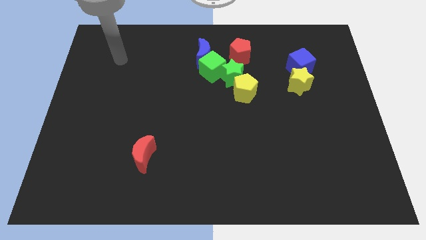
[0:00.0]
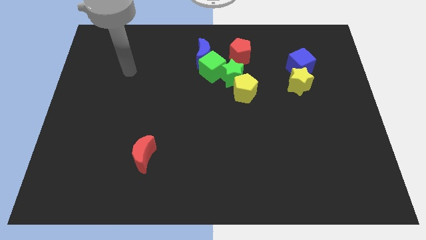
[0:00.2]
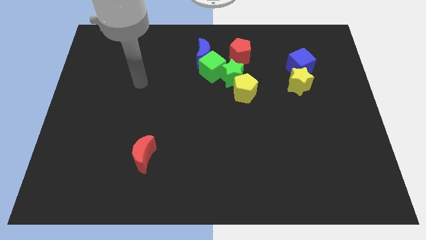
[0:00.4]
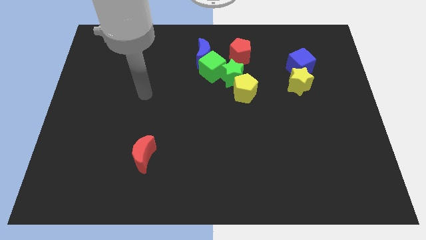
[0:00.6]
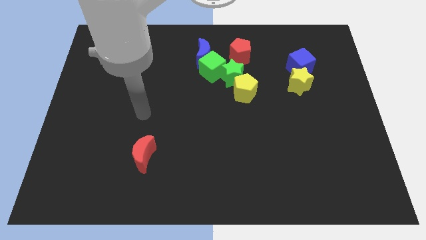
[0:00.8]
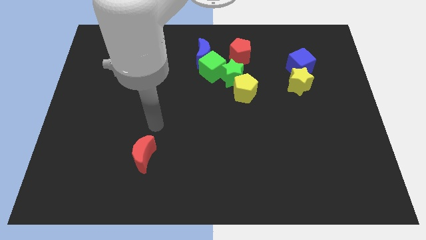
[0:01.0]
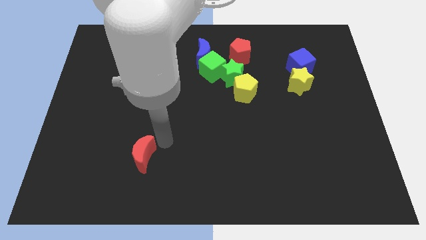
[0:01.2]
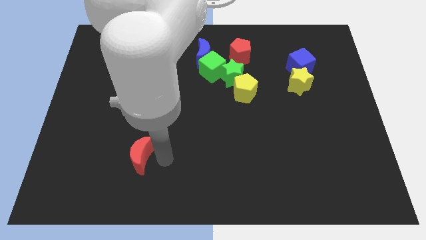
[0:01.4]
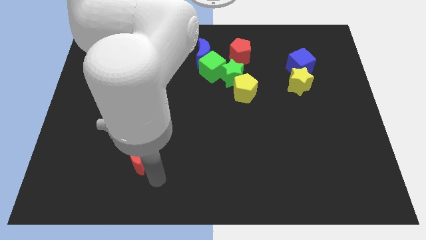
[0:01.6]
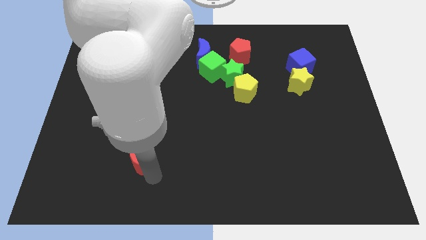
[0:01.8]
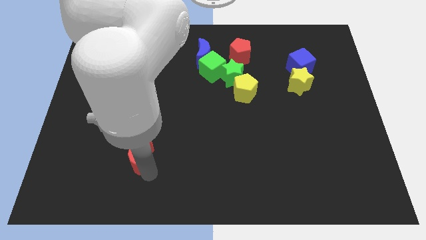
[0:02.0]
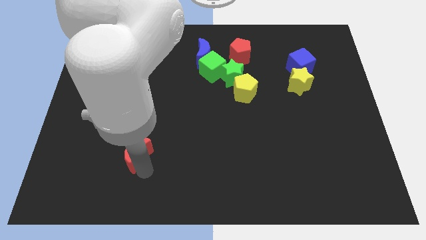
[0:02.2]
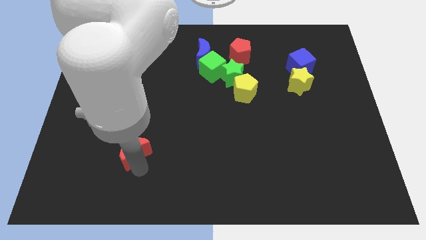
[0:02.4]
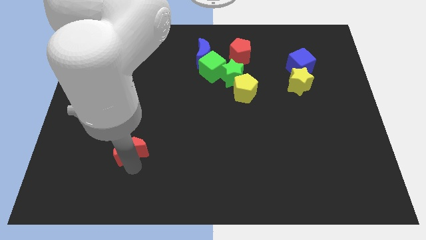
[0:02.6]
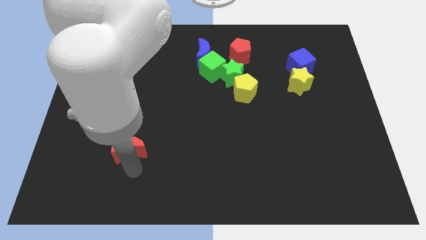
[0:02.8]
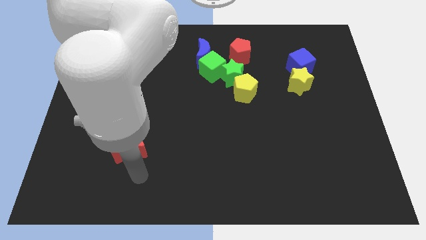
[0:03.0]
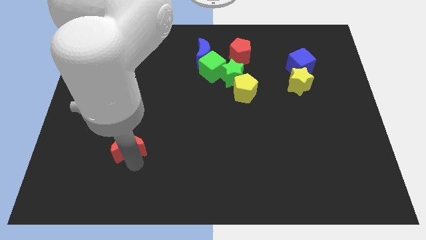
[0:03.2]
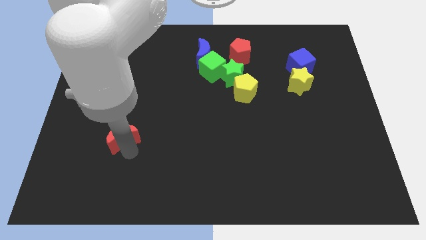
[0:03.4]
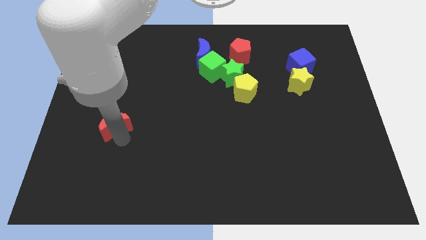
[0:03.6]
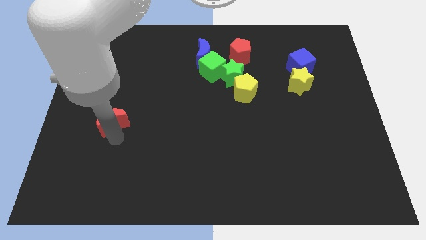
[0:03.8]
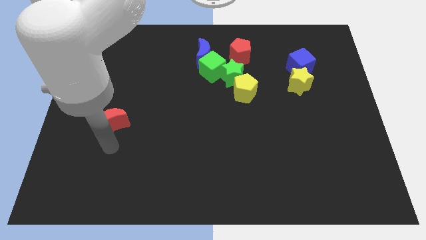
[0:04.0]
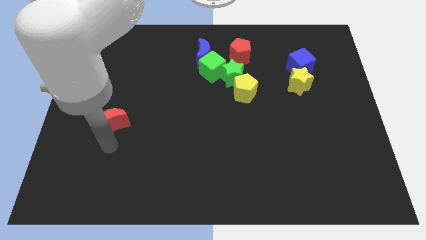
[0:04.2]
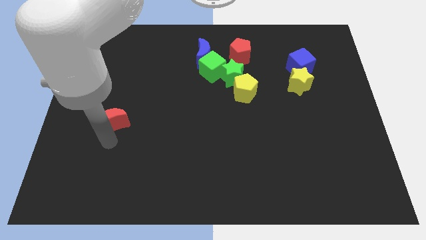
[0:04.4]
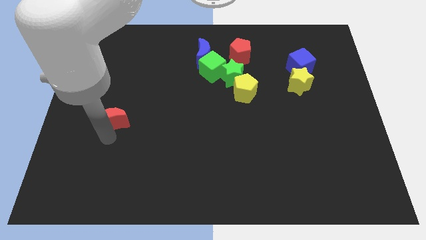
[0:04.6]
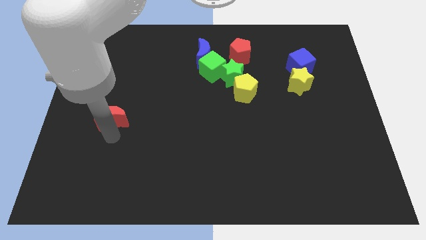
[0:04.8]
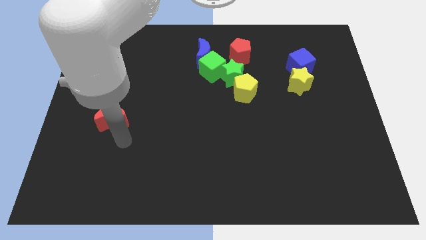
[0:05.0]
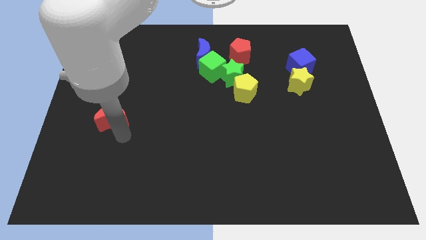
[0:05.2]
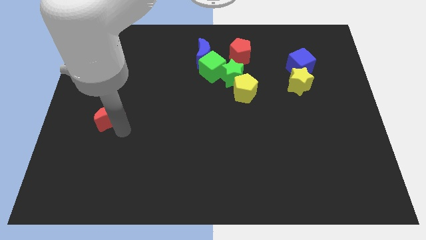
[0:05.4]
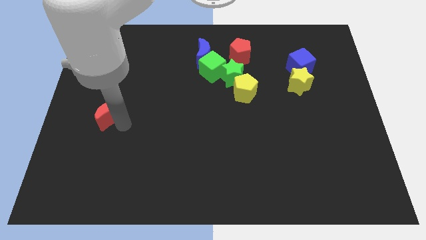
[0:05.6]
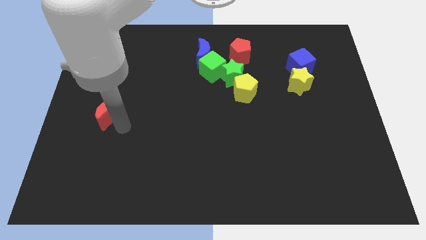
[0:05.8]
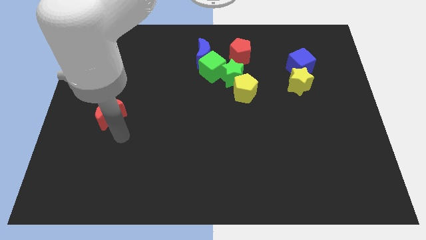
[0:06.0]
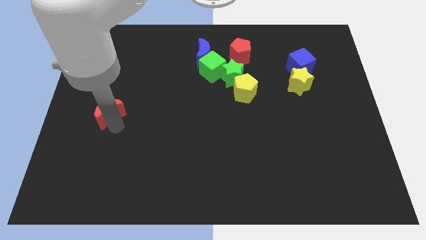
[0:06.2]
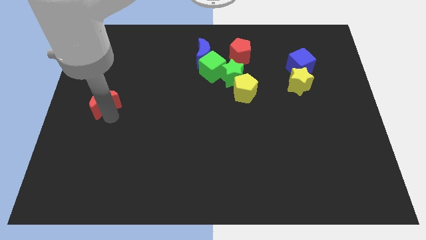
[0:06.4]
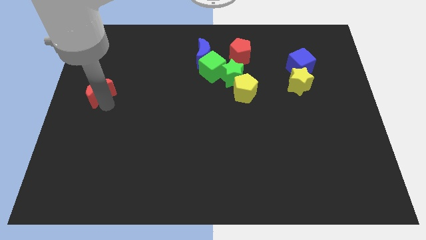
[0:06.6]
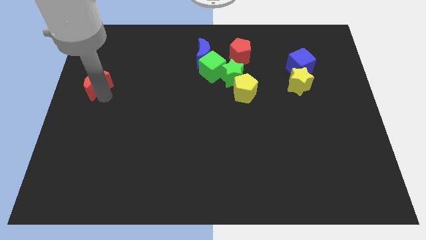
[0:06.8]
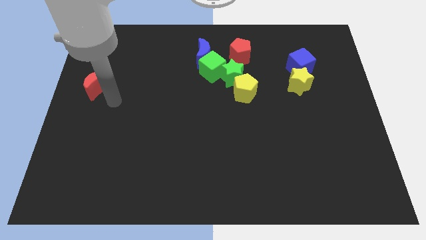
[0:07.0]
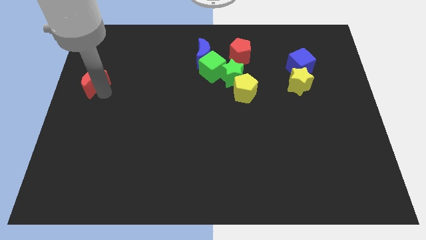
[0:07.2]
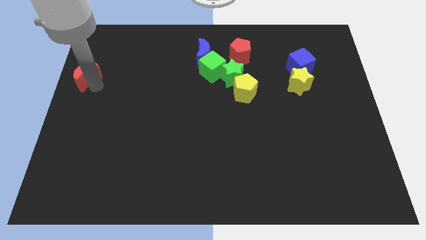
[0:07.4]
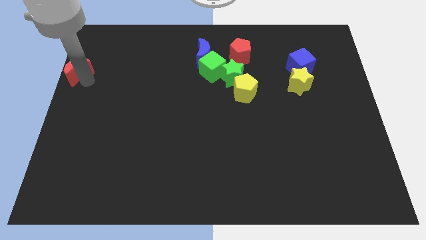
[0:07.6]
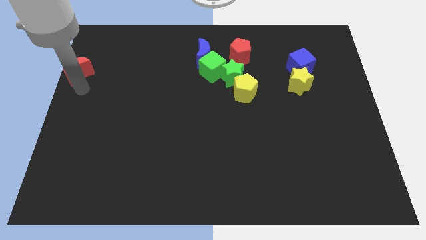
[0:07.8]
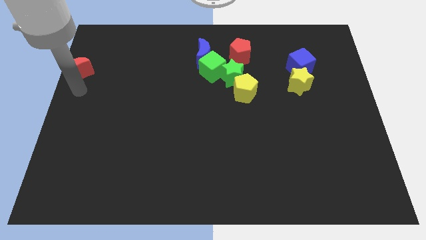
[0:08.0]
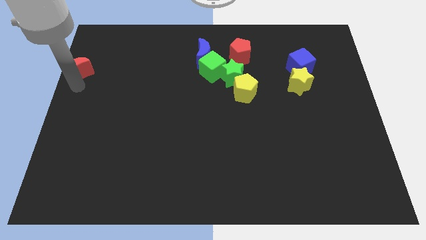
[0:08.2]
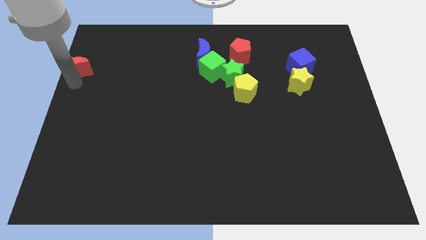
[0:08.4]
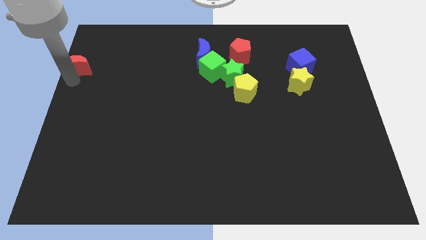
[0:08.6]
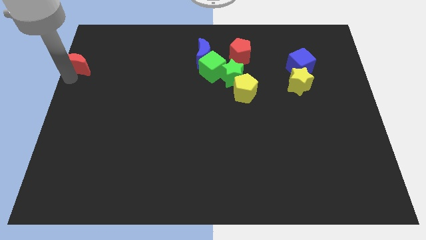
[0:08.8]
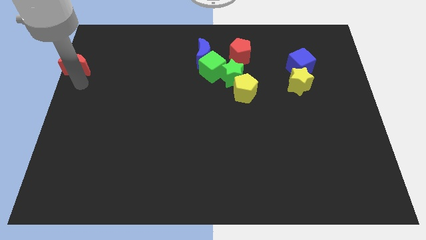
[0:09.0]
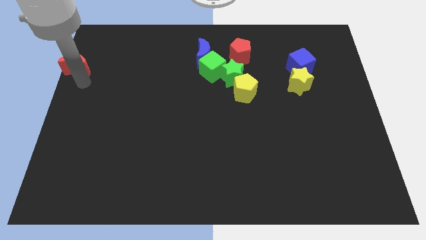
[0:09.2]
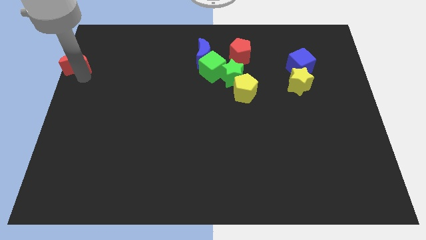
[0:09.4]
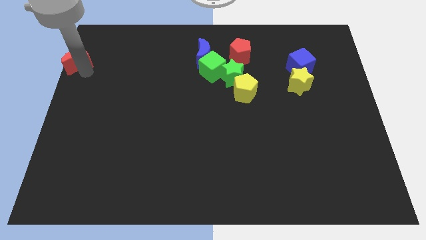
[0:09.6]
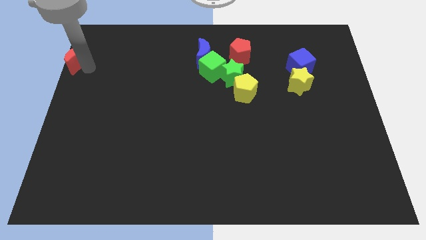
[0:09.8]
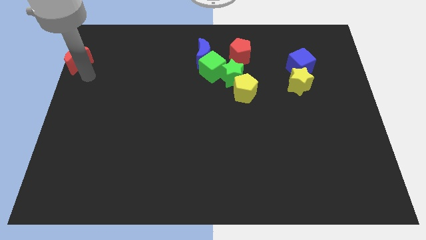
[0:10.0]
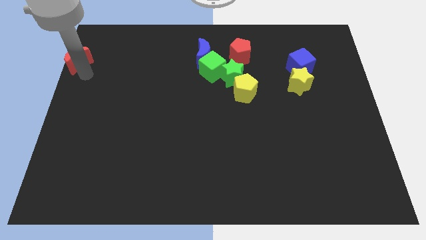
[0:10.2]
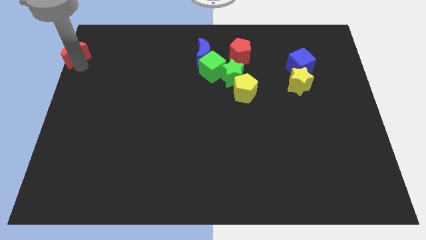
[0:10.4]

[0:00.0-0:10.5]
put the red moon to the top left

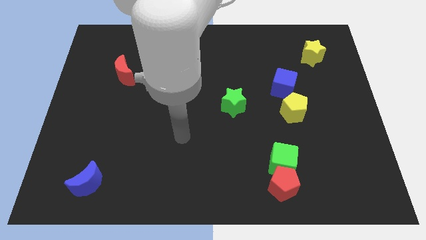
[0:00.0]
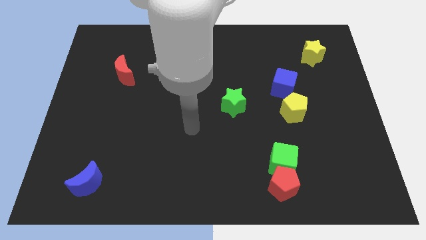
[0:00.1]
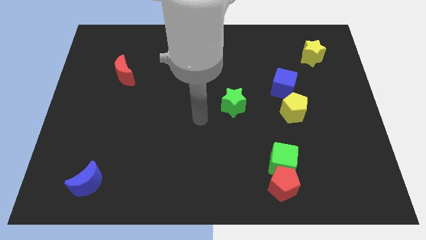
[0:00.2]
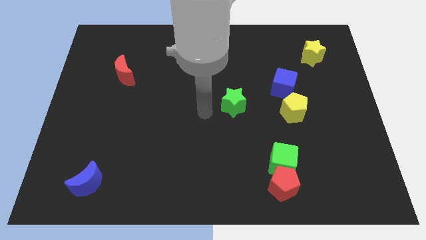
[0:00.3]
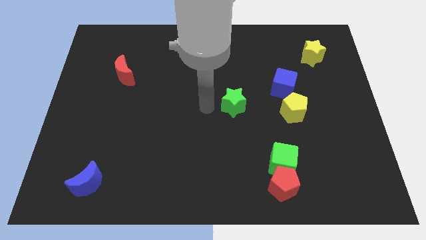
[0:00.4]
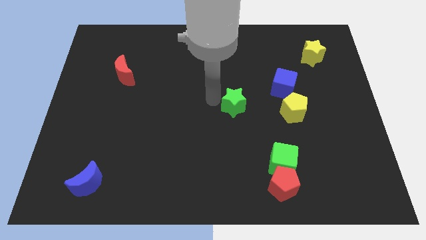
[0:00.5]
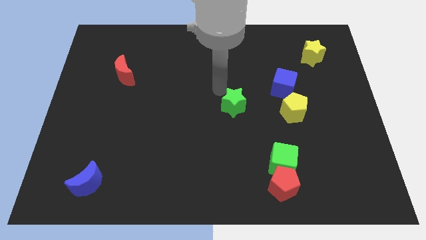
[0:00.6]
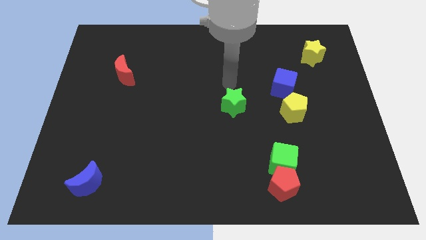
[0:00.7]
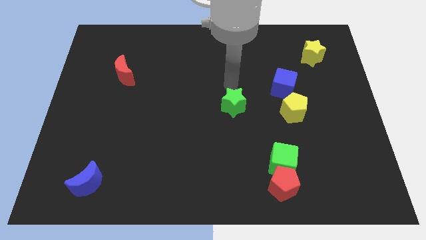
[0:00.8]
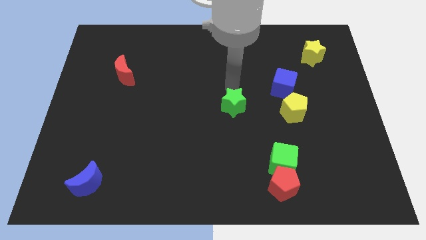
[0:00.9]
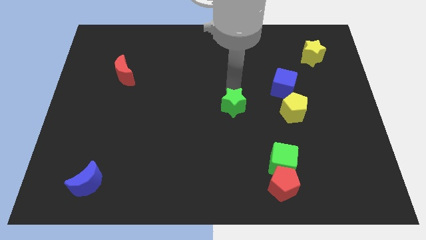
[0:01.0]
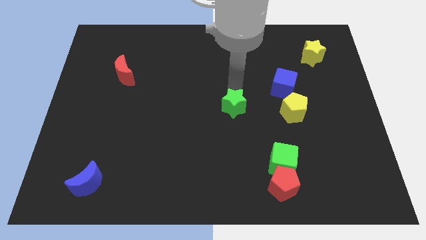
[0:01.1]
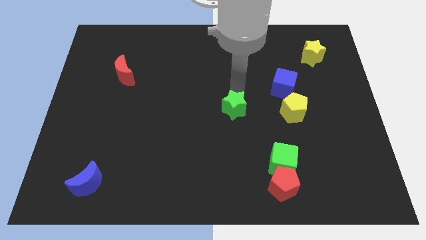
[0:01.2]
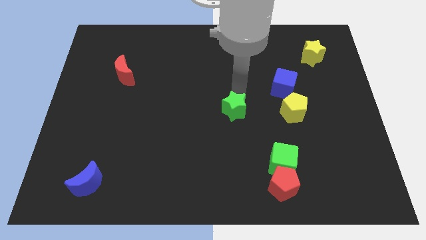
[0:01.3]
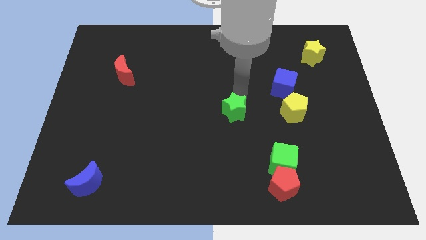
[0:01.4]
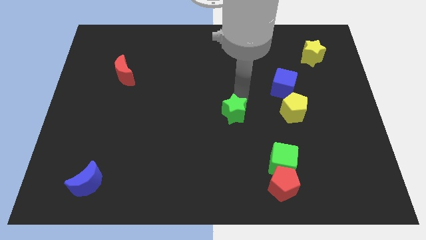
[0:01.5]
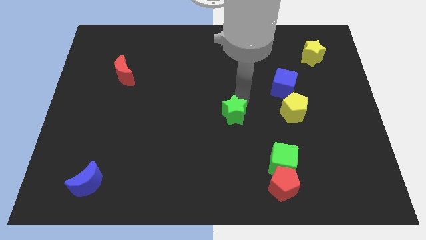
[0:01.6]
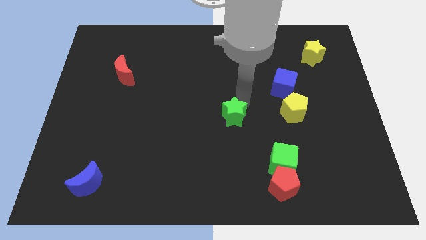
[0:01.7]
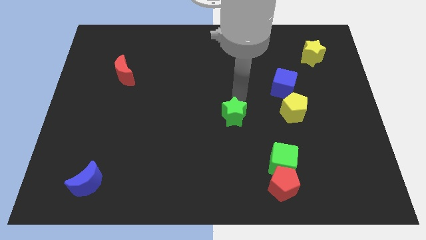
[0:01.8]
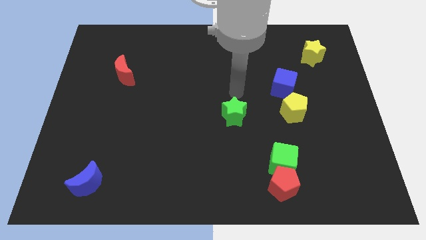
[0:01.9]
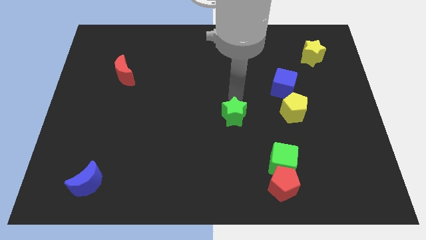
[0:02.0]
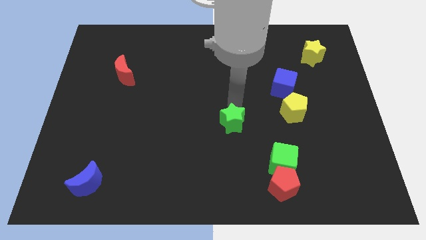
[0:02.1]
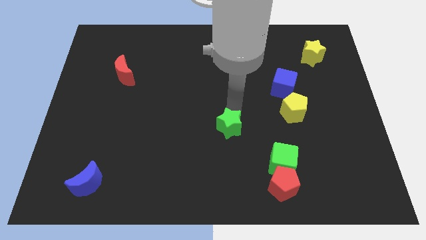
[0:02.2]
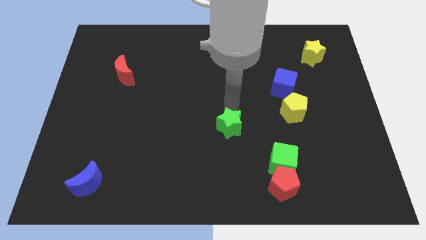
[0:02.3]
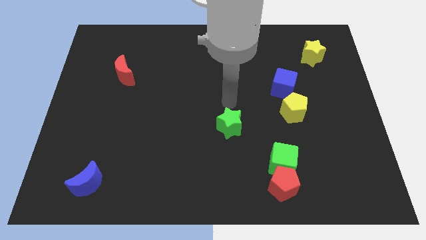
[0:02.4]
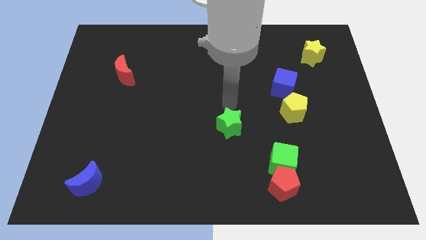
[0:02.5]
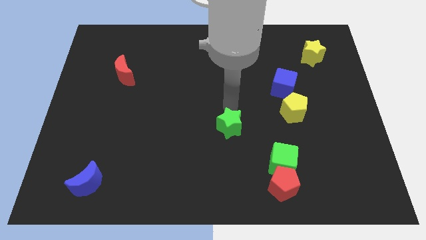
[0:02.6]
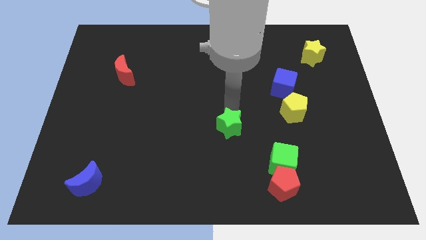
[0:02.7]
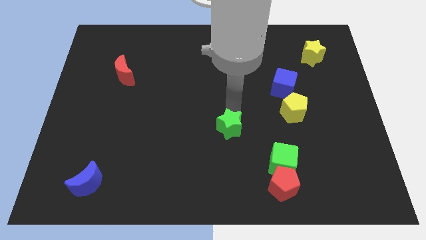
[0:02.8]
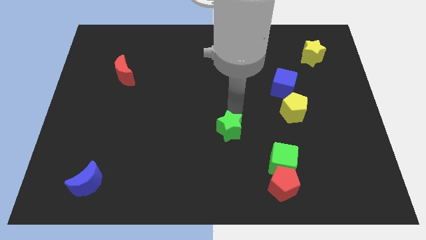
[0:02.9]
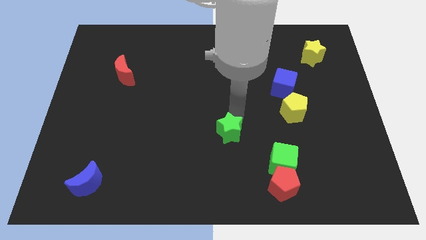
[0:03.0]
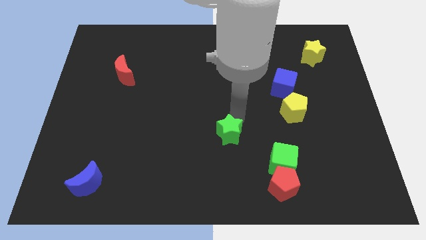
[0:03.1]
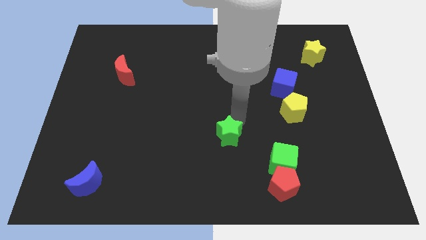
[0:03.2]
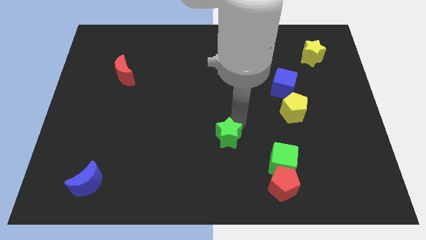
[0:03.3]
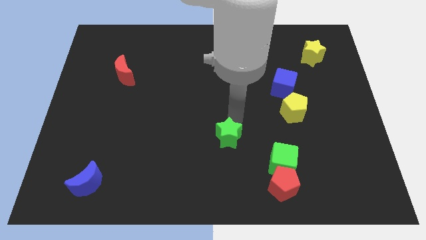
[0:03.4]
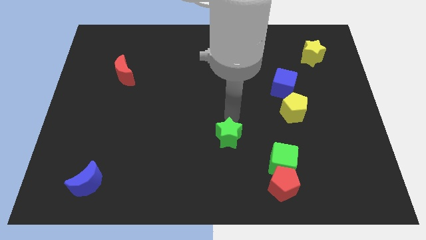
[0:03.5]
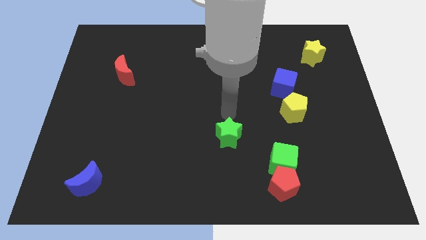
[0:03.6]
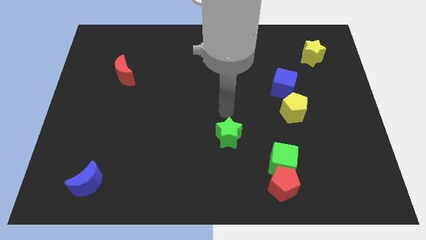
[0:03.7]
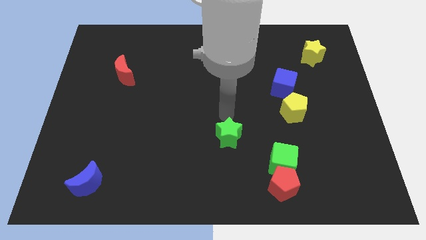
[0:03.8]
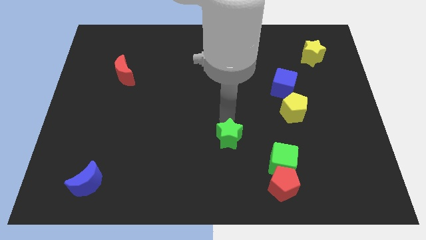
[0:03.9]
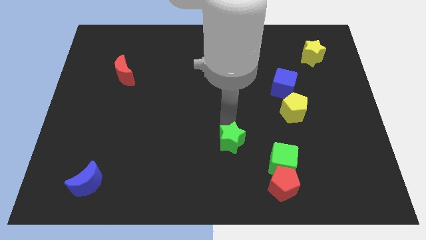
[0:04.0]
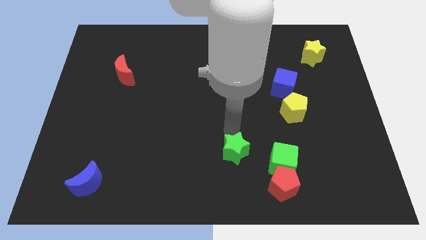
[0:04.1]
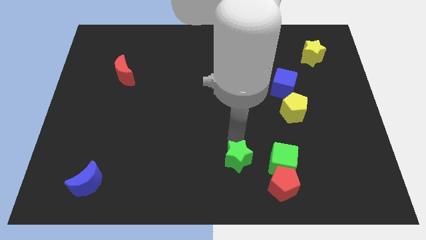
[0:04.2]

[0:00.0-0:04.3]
slide the green star to the bottom
